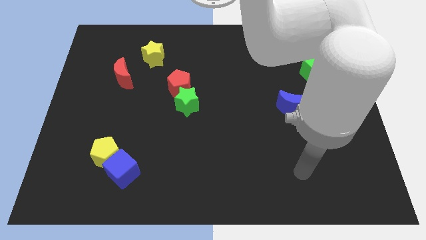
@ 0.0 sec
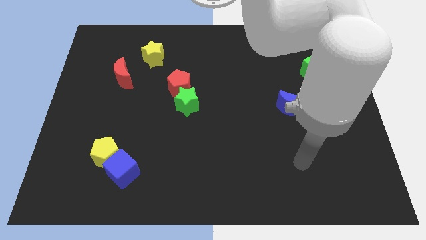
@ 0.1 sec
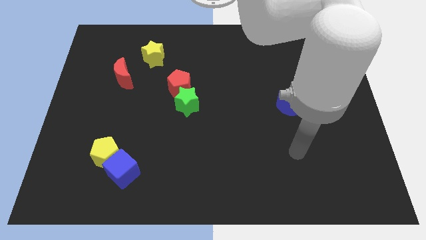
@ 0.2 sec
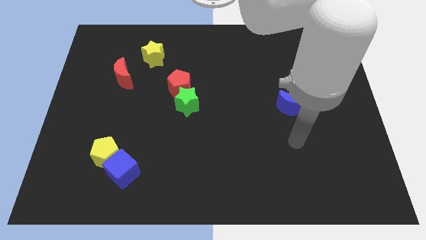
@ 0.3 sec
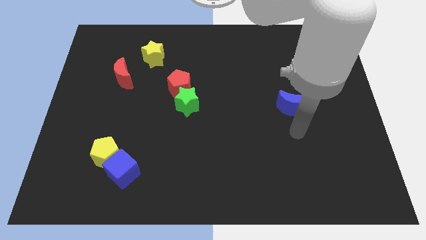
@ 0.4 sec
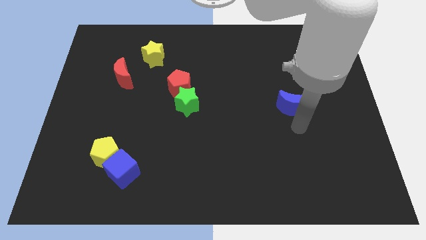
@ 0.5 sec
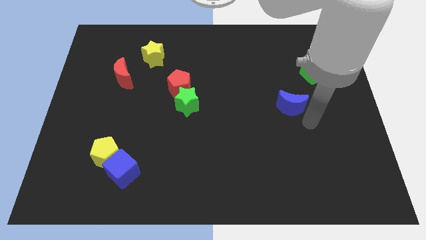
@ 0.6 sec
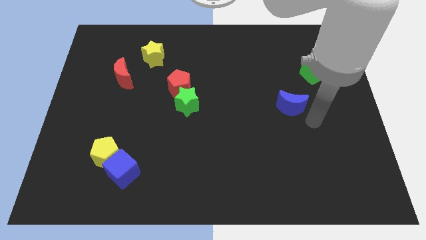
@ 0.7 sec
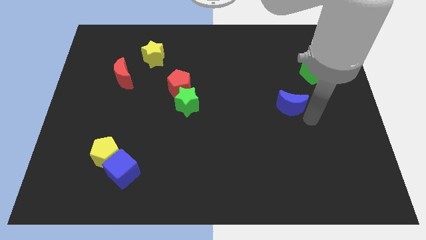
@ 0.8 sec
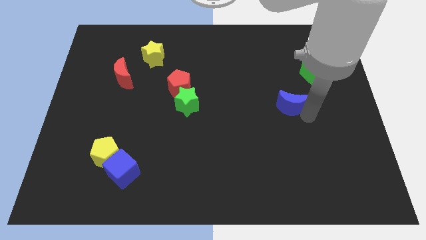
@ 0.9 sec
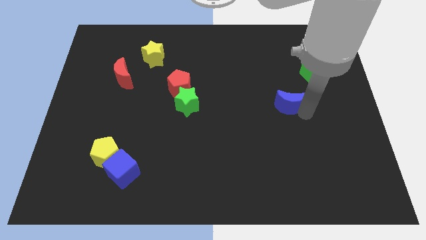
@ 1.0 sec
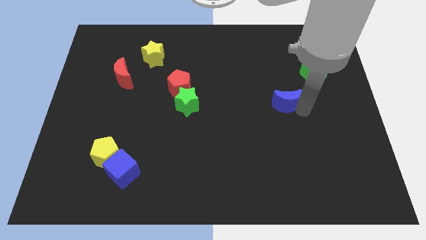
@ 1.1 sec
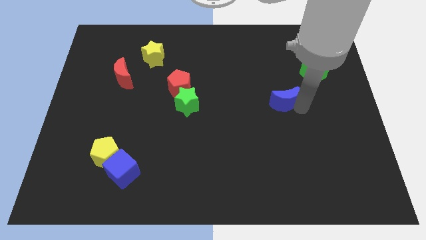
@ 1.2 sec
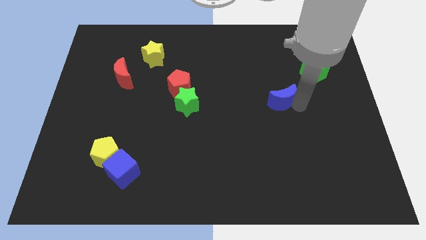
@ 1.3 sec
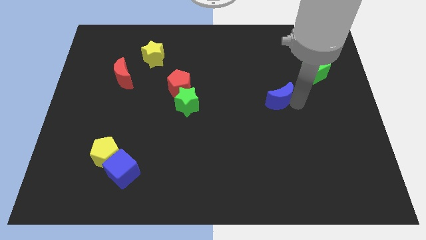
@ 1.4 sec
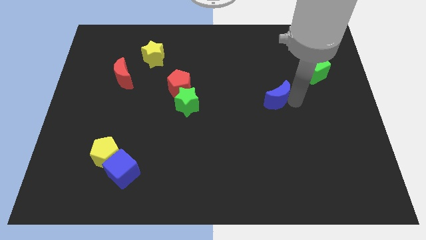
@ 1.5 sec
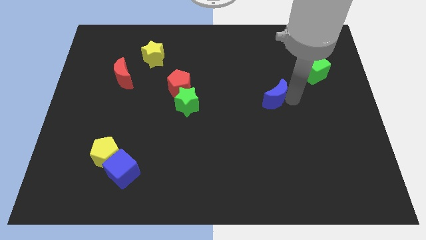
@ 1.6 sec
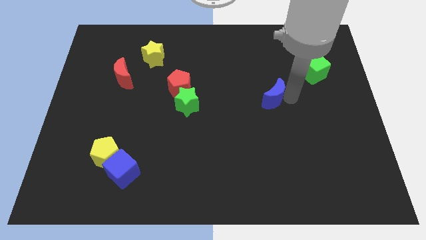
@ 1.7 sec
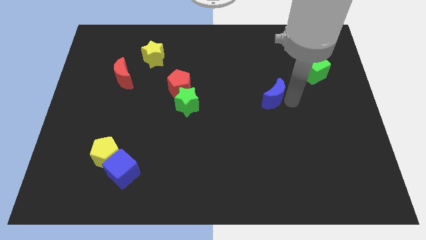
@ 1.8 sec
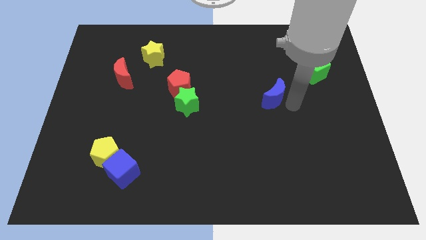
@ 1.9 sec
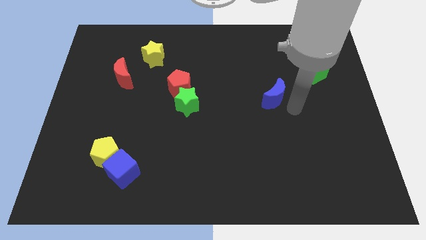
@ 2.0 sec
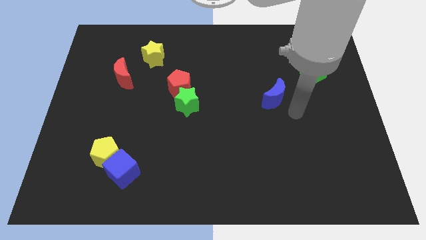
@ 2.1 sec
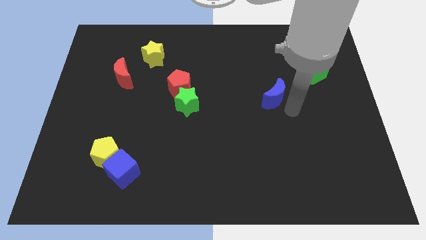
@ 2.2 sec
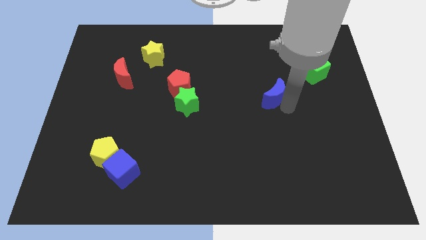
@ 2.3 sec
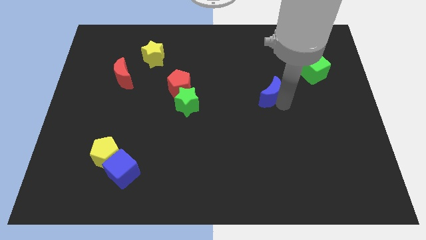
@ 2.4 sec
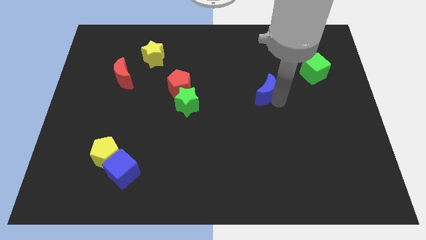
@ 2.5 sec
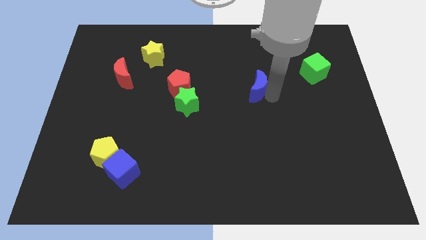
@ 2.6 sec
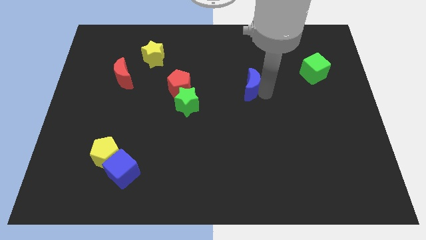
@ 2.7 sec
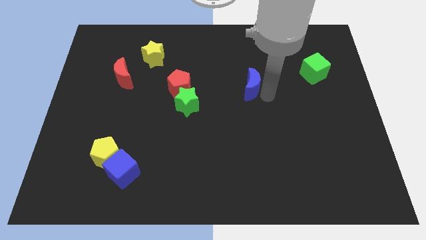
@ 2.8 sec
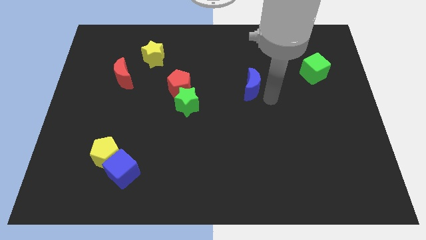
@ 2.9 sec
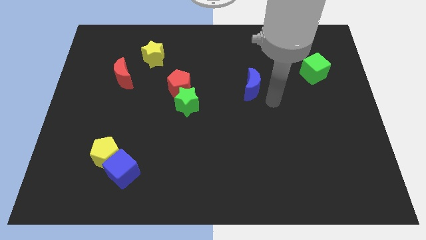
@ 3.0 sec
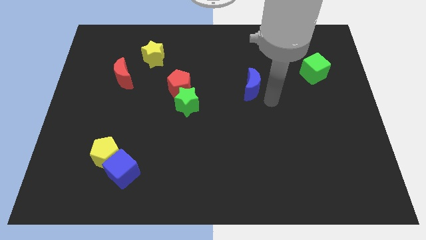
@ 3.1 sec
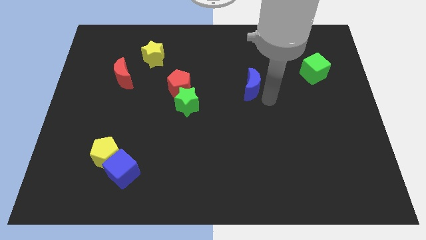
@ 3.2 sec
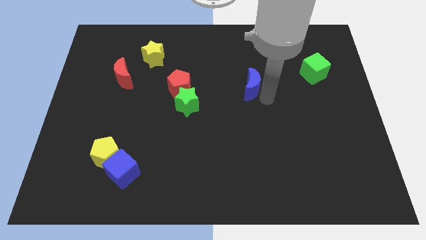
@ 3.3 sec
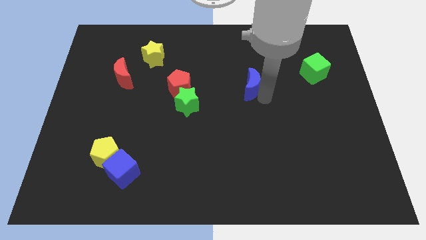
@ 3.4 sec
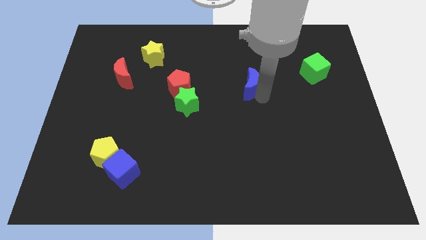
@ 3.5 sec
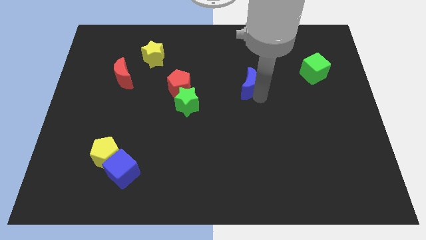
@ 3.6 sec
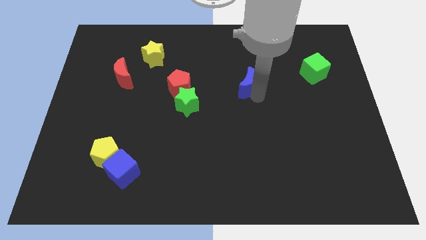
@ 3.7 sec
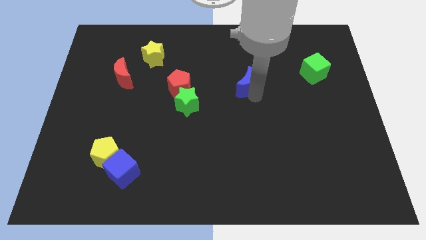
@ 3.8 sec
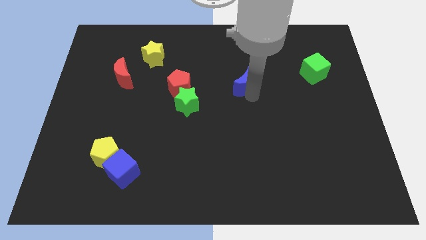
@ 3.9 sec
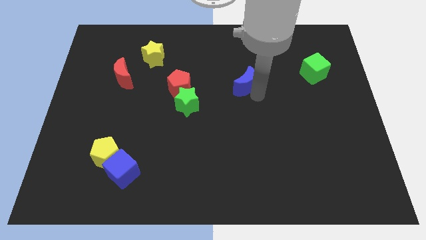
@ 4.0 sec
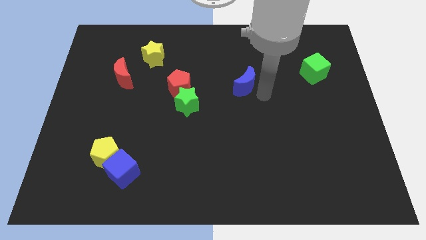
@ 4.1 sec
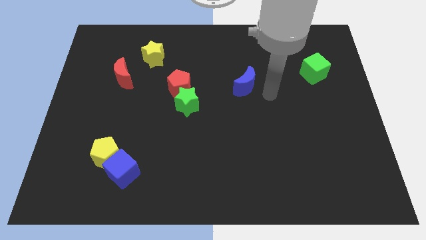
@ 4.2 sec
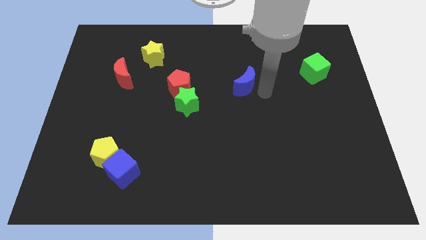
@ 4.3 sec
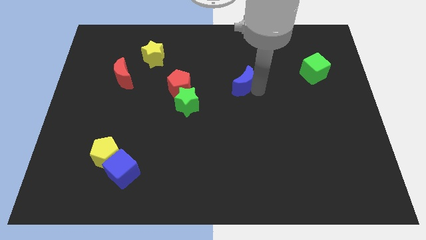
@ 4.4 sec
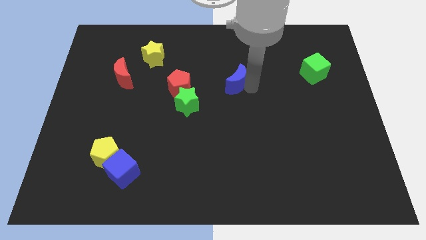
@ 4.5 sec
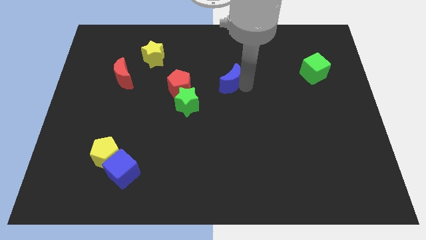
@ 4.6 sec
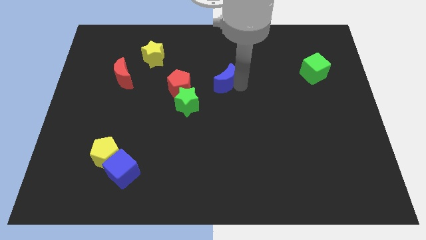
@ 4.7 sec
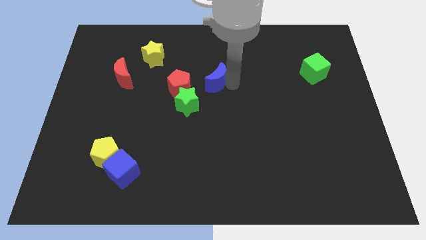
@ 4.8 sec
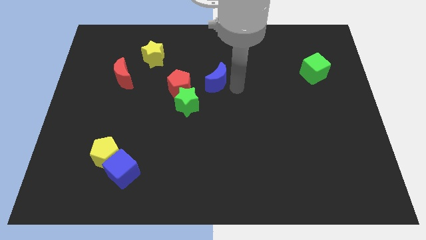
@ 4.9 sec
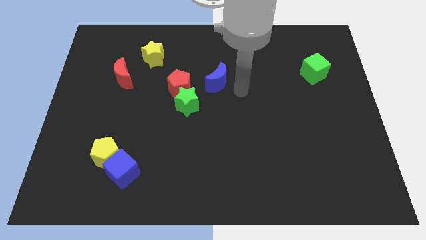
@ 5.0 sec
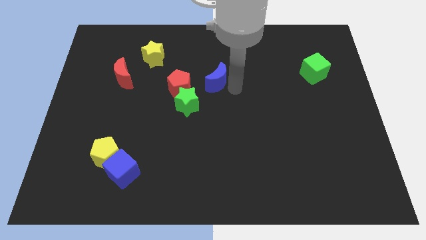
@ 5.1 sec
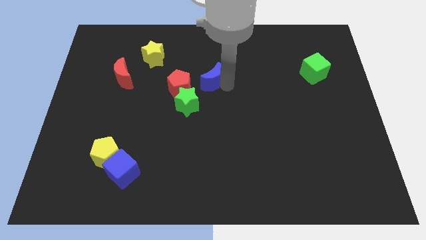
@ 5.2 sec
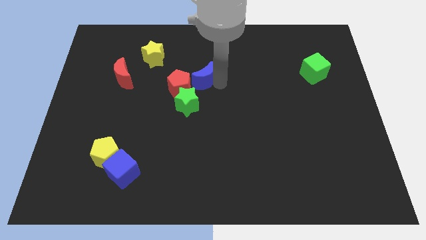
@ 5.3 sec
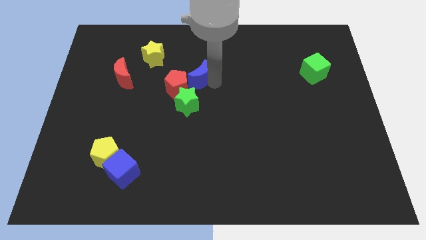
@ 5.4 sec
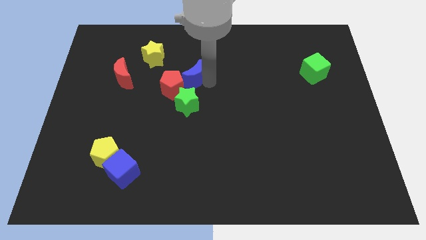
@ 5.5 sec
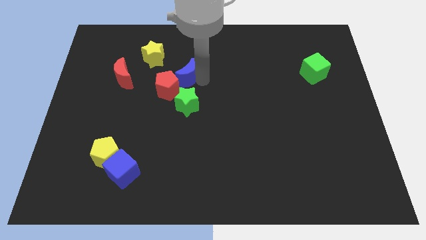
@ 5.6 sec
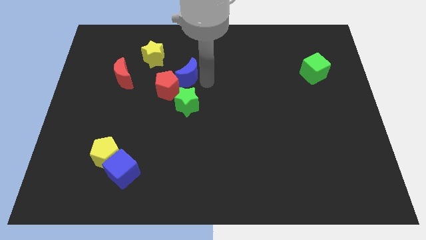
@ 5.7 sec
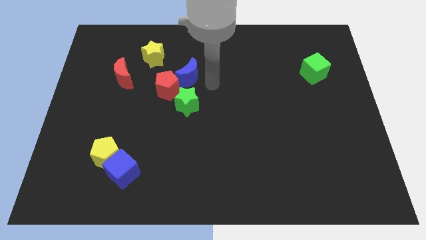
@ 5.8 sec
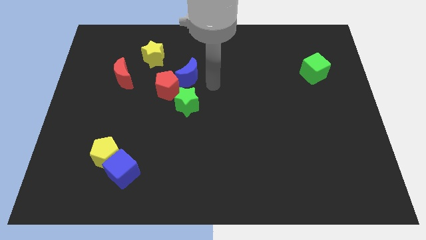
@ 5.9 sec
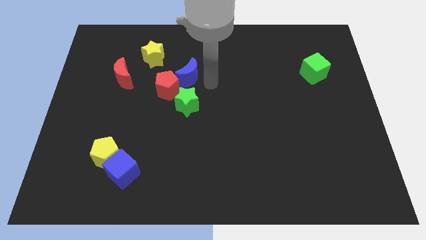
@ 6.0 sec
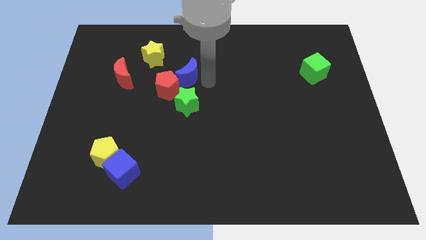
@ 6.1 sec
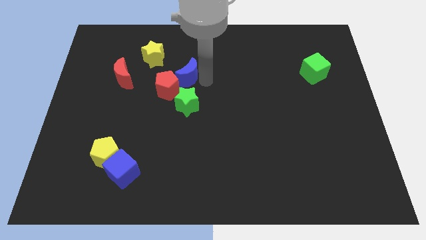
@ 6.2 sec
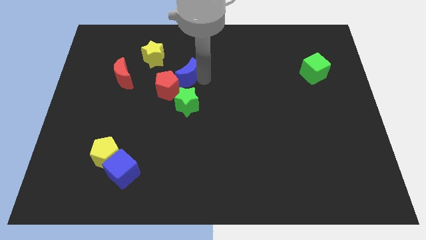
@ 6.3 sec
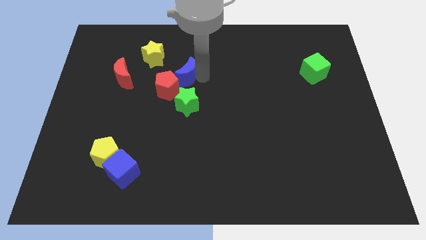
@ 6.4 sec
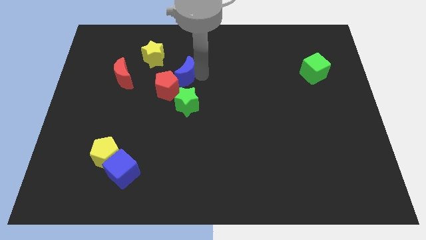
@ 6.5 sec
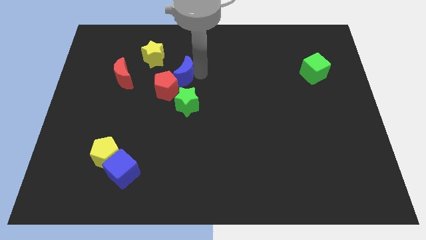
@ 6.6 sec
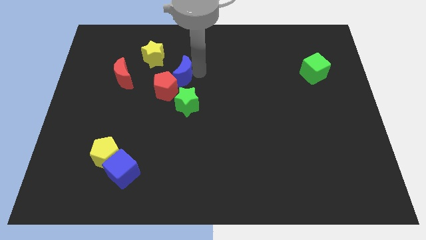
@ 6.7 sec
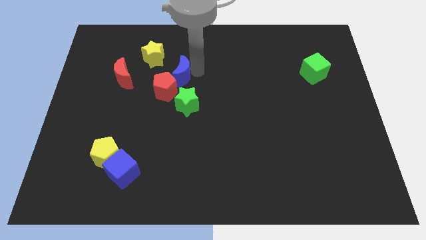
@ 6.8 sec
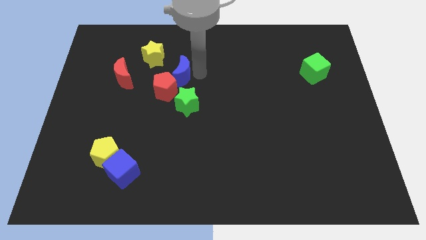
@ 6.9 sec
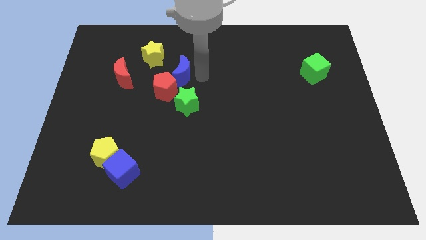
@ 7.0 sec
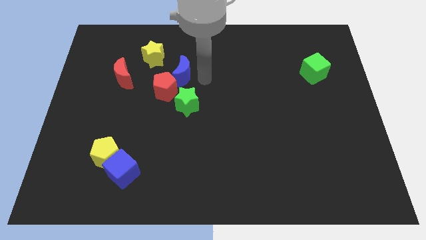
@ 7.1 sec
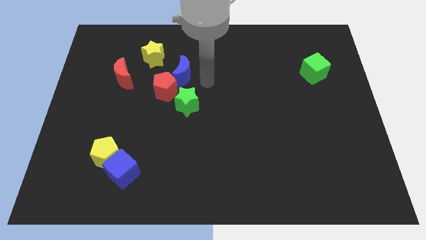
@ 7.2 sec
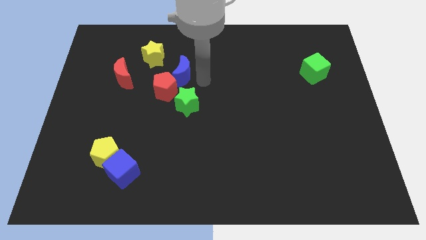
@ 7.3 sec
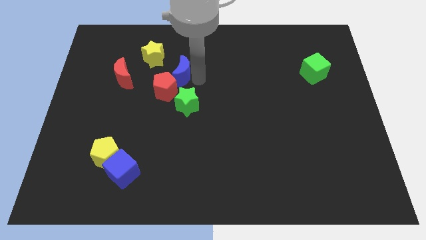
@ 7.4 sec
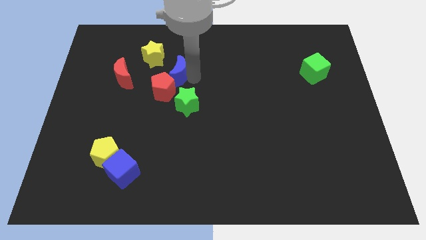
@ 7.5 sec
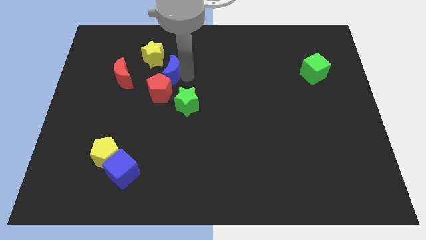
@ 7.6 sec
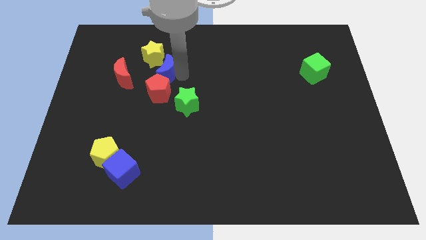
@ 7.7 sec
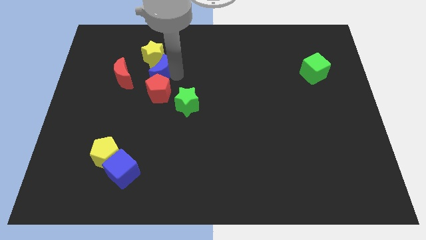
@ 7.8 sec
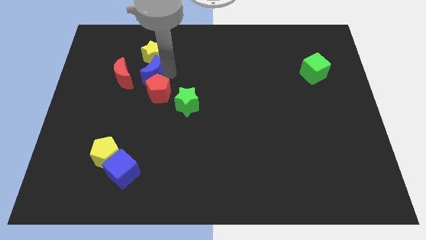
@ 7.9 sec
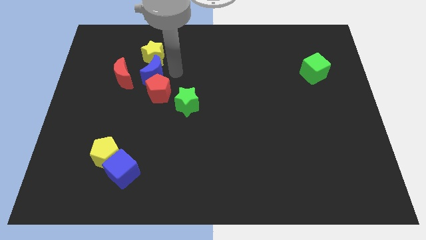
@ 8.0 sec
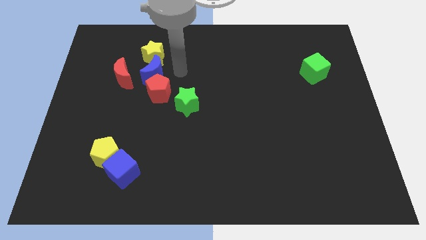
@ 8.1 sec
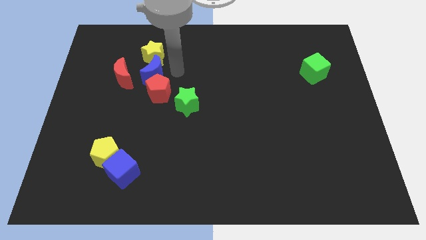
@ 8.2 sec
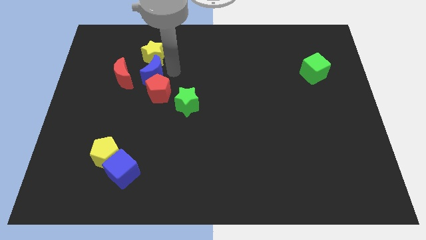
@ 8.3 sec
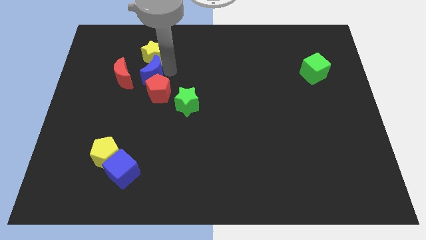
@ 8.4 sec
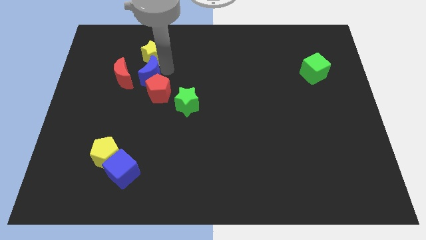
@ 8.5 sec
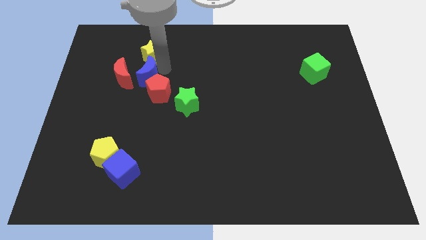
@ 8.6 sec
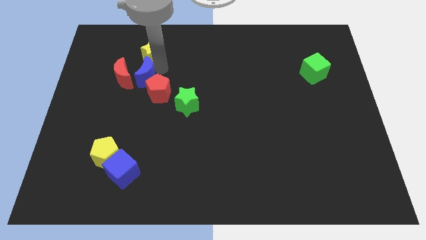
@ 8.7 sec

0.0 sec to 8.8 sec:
put the blue moon to the red moon
